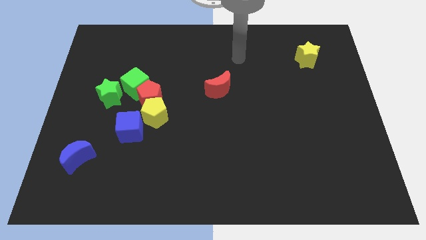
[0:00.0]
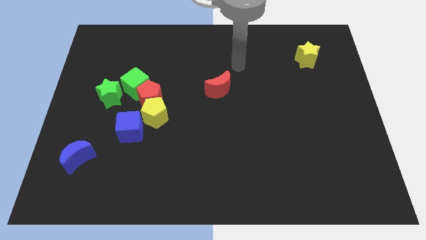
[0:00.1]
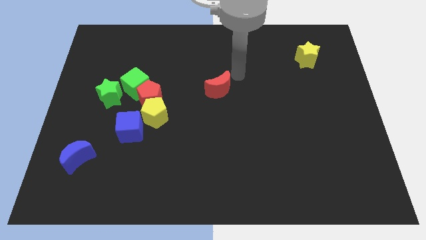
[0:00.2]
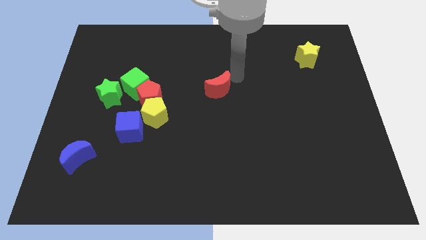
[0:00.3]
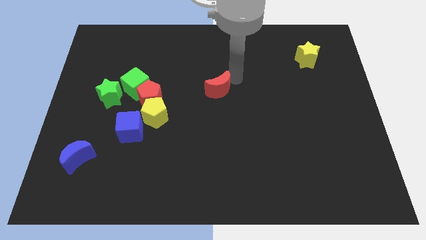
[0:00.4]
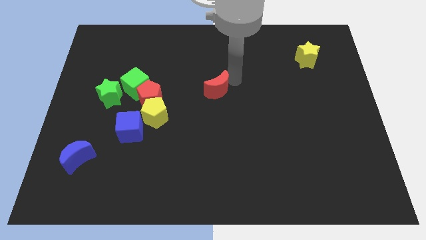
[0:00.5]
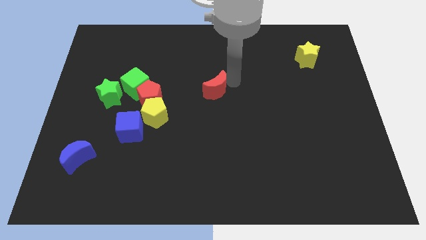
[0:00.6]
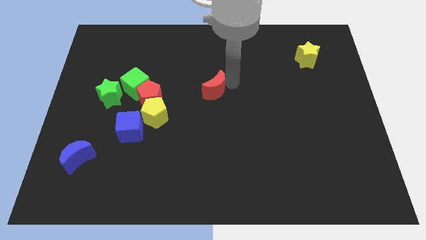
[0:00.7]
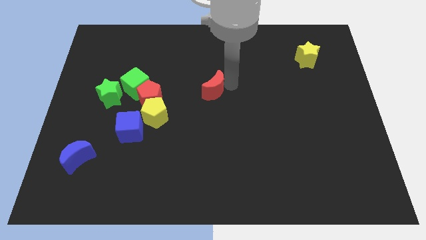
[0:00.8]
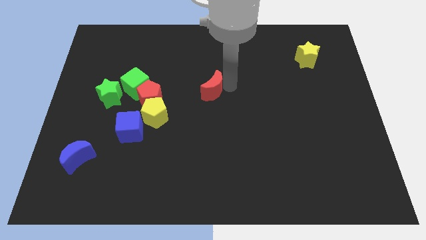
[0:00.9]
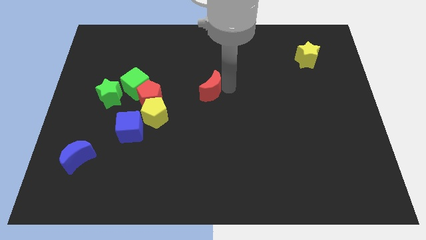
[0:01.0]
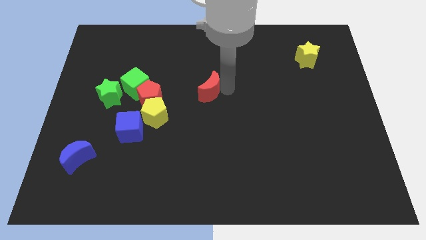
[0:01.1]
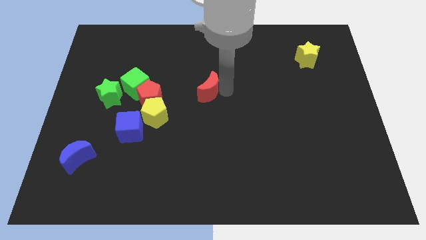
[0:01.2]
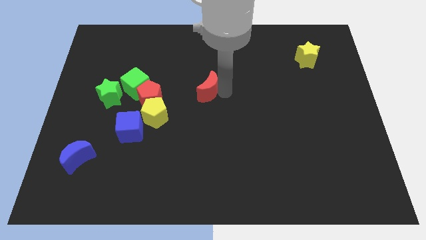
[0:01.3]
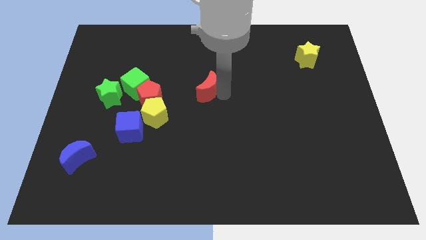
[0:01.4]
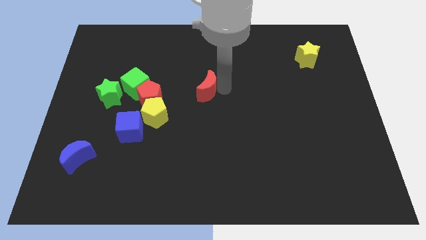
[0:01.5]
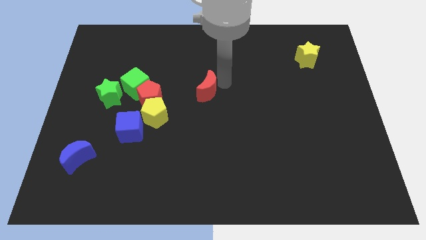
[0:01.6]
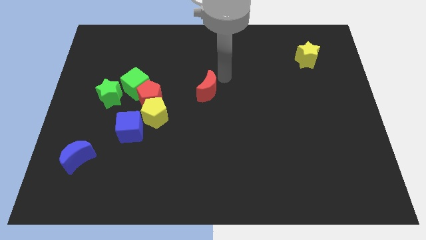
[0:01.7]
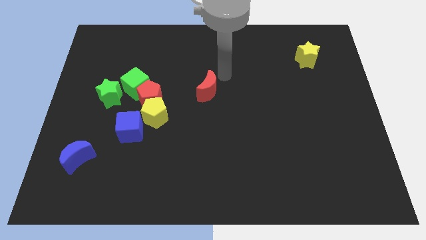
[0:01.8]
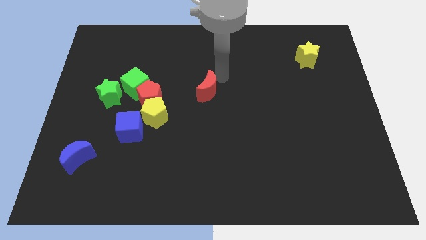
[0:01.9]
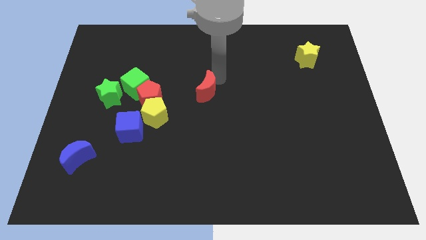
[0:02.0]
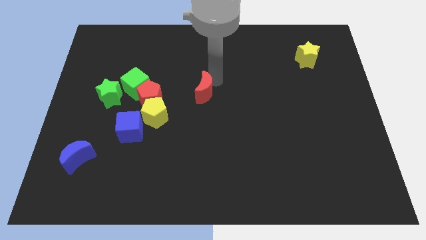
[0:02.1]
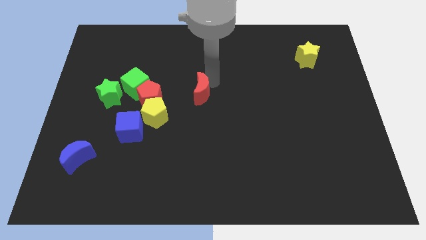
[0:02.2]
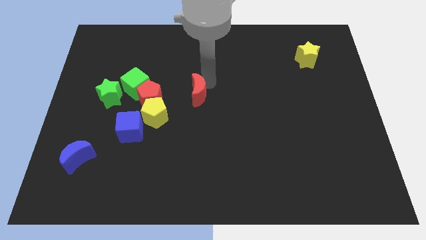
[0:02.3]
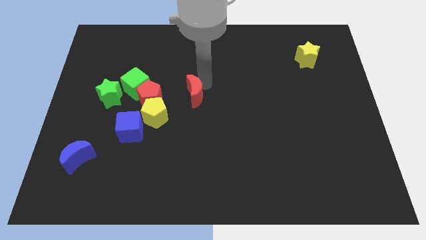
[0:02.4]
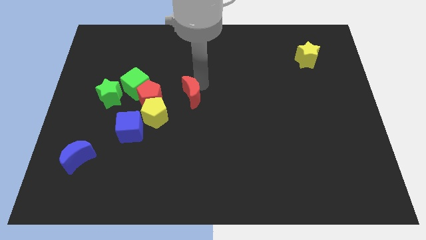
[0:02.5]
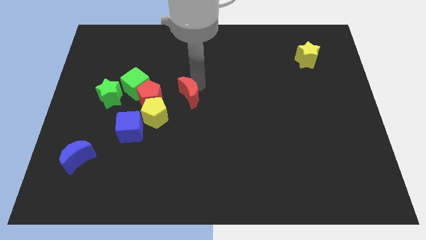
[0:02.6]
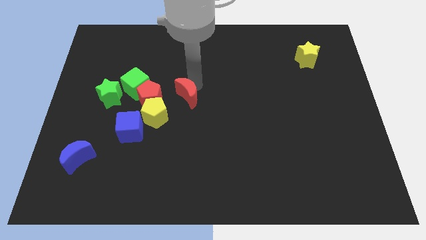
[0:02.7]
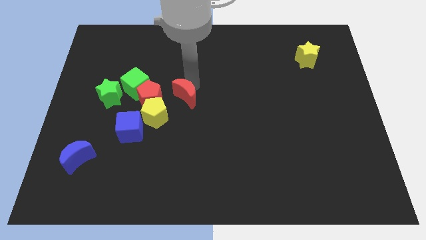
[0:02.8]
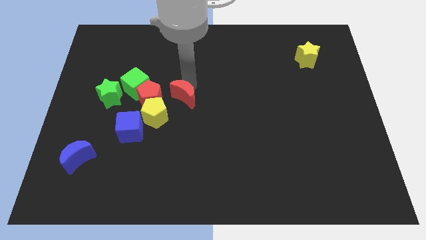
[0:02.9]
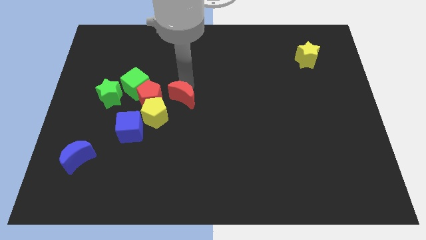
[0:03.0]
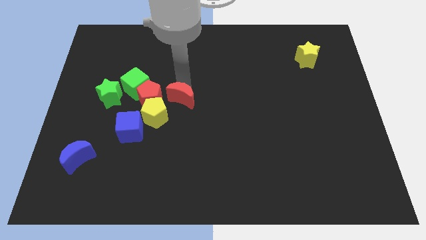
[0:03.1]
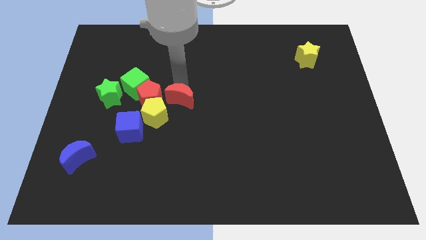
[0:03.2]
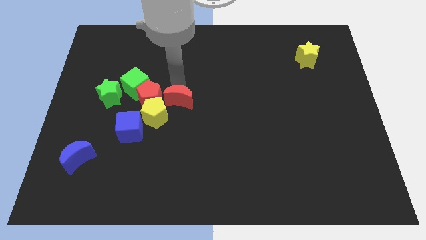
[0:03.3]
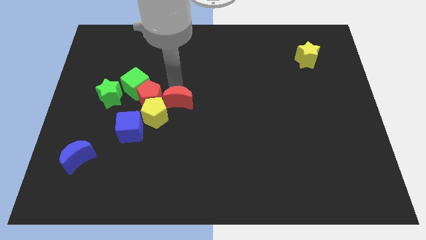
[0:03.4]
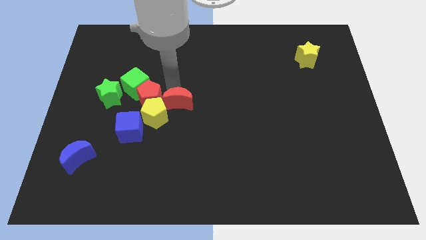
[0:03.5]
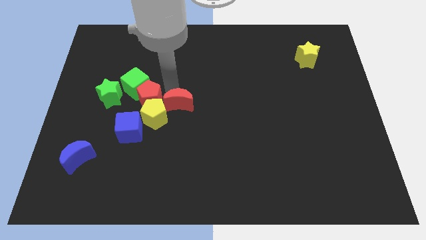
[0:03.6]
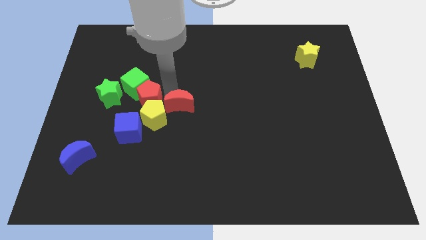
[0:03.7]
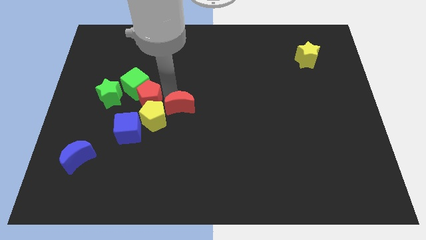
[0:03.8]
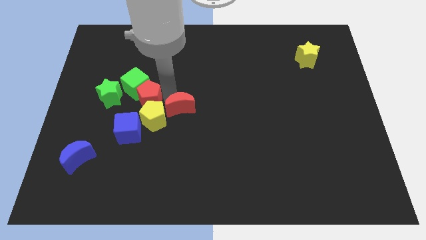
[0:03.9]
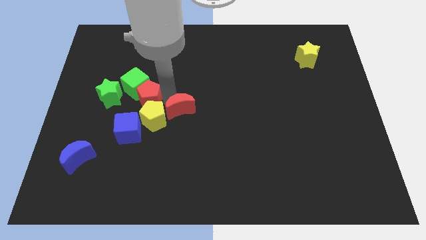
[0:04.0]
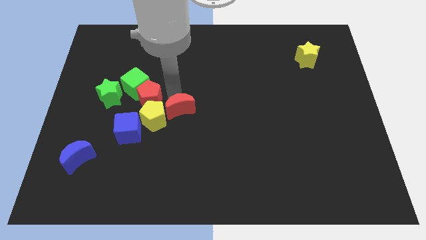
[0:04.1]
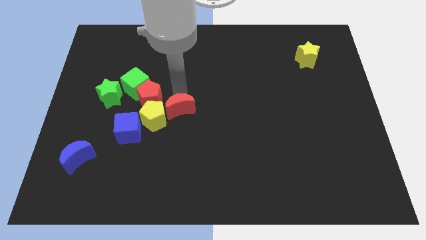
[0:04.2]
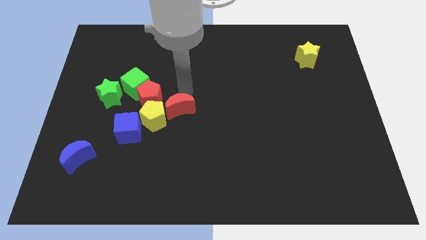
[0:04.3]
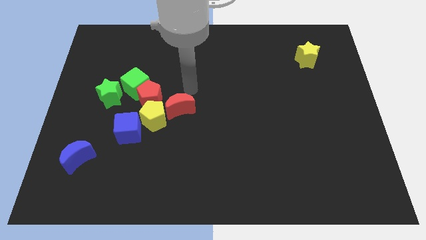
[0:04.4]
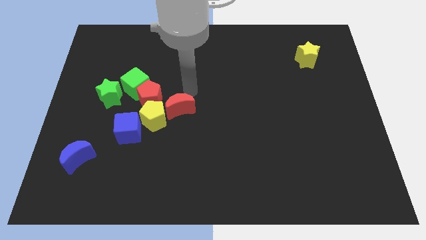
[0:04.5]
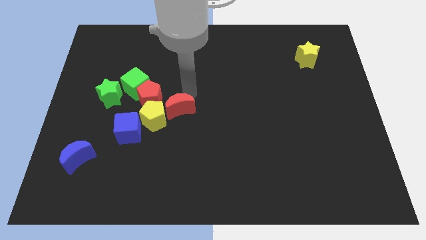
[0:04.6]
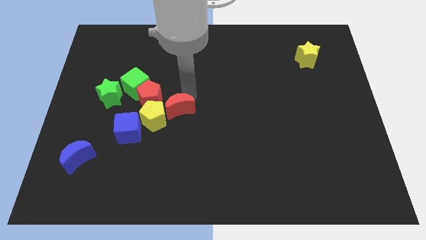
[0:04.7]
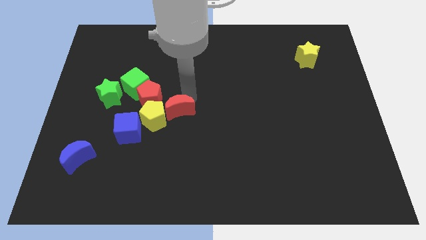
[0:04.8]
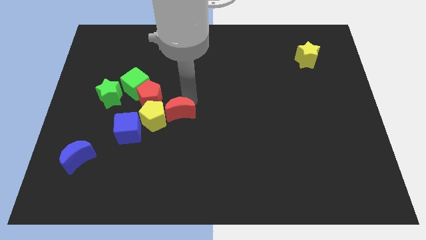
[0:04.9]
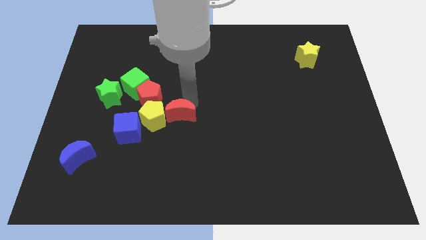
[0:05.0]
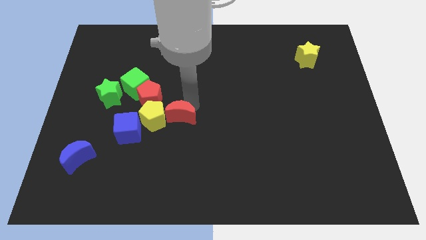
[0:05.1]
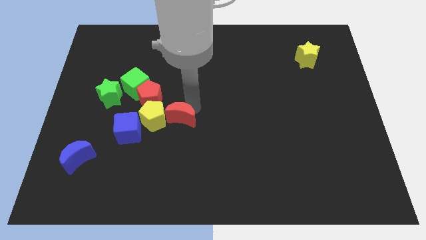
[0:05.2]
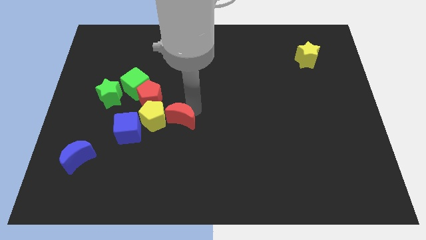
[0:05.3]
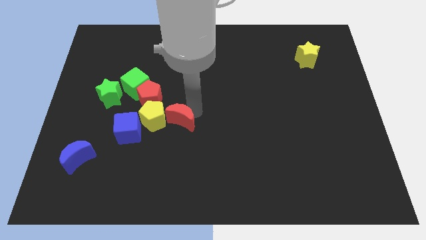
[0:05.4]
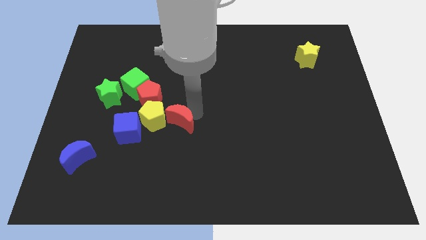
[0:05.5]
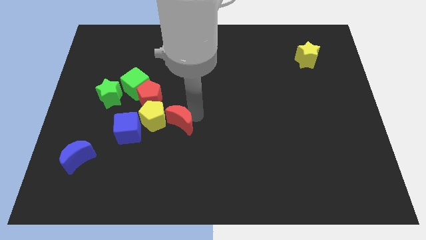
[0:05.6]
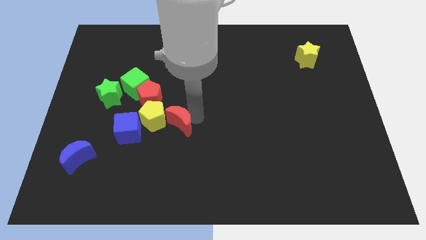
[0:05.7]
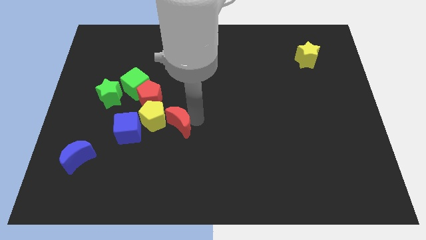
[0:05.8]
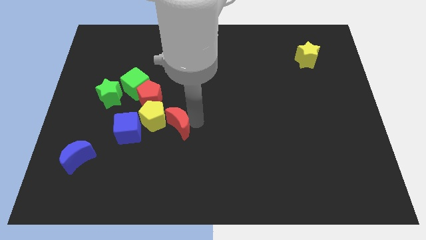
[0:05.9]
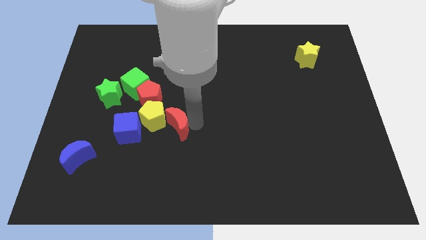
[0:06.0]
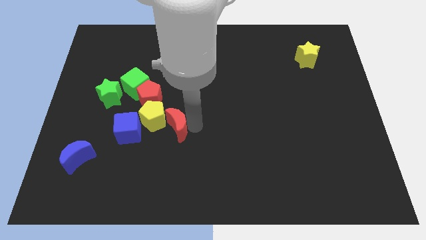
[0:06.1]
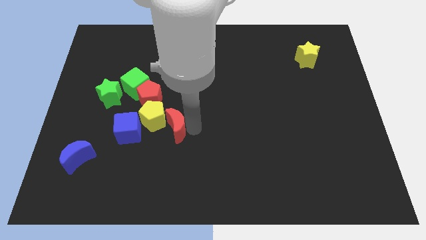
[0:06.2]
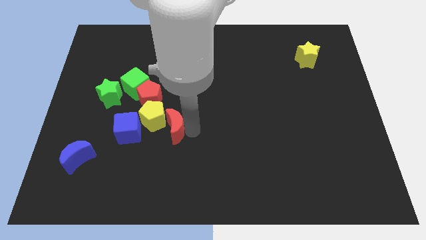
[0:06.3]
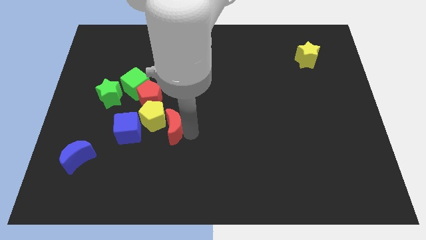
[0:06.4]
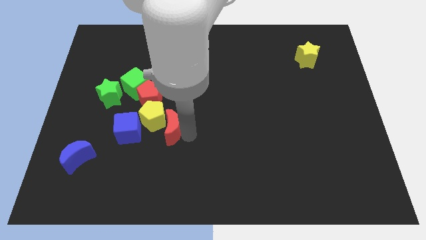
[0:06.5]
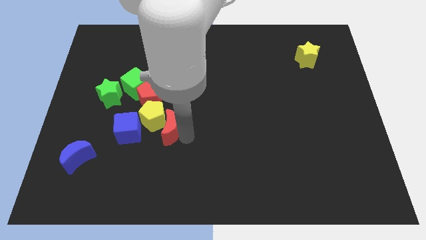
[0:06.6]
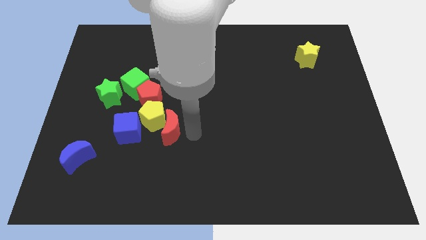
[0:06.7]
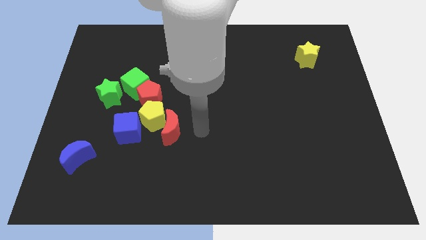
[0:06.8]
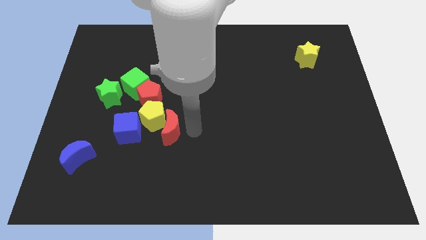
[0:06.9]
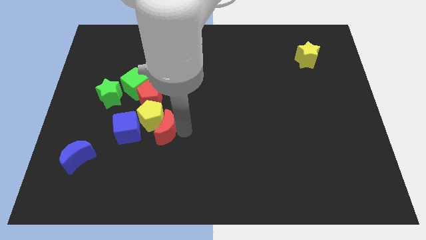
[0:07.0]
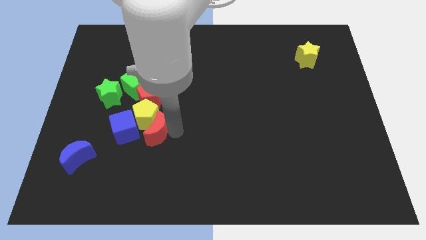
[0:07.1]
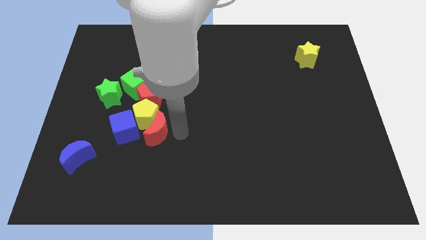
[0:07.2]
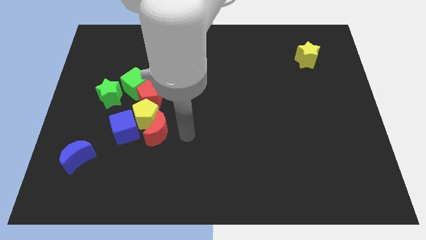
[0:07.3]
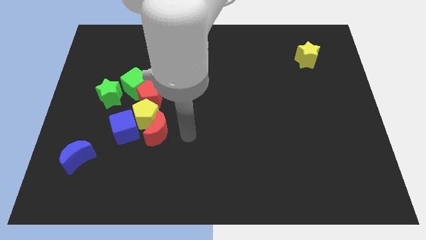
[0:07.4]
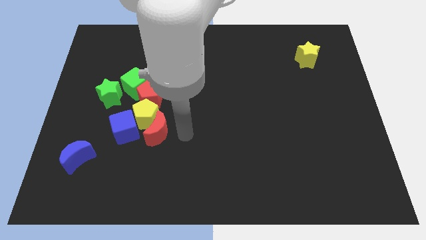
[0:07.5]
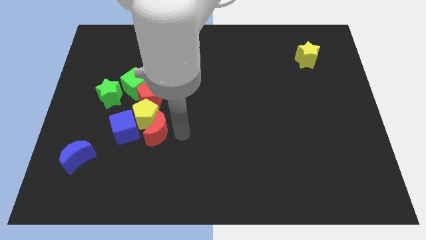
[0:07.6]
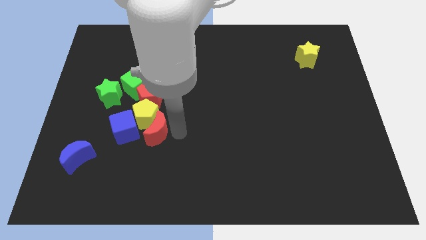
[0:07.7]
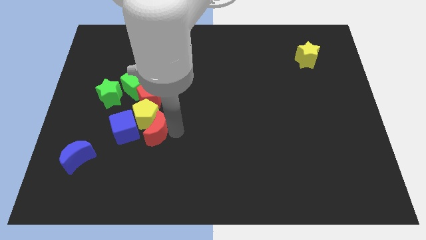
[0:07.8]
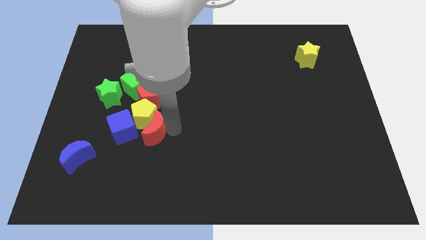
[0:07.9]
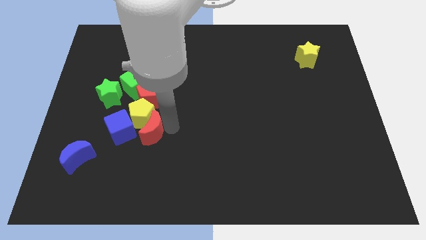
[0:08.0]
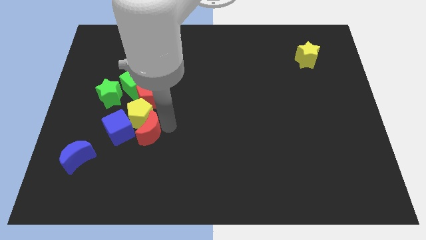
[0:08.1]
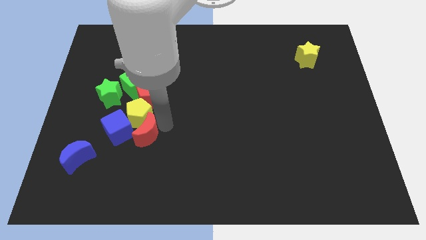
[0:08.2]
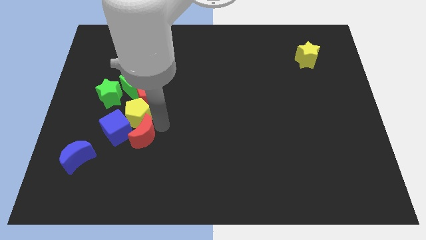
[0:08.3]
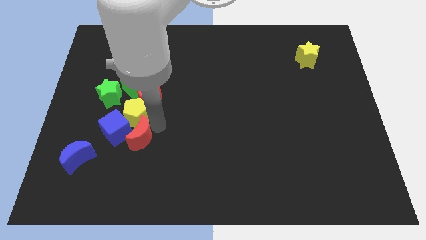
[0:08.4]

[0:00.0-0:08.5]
move the red moon to the blue cube
